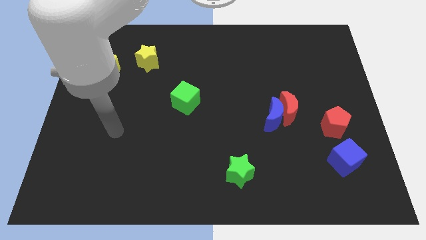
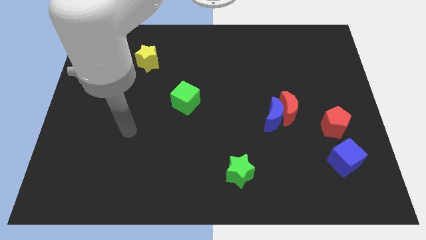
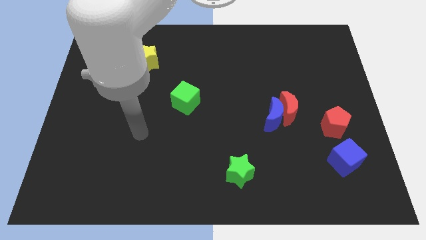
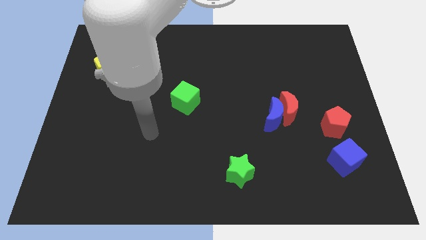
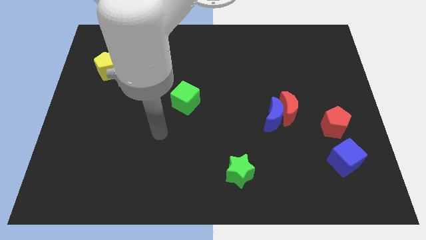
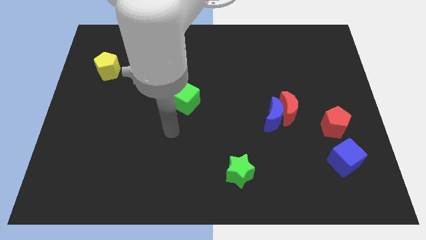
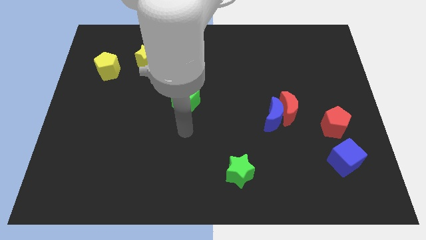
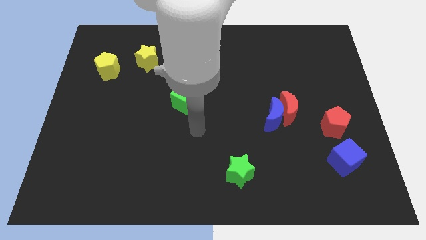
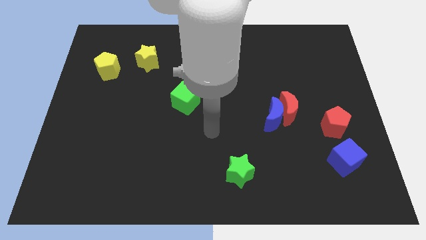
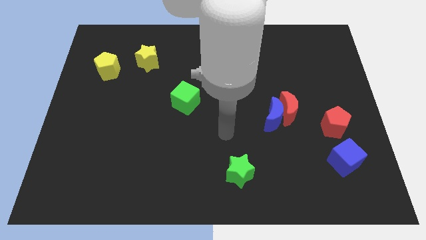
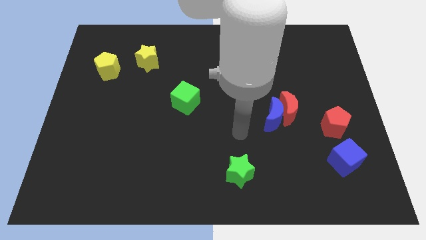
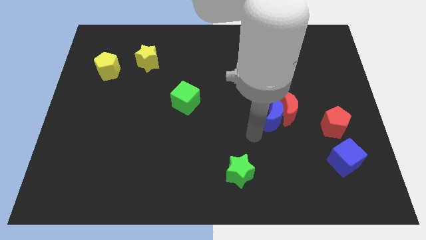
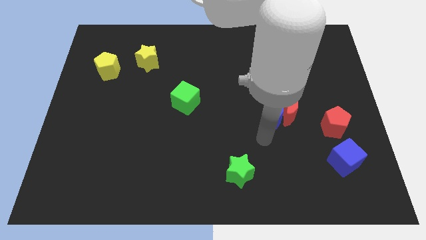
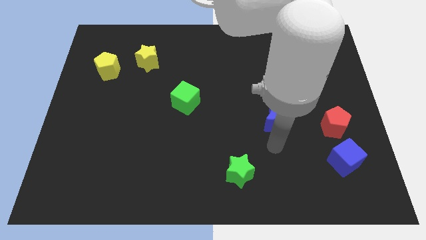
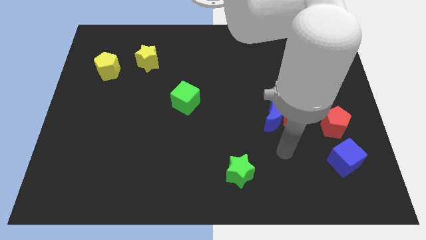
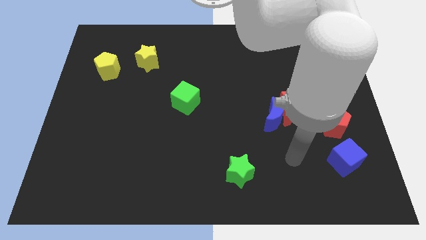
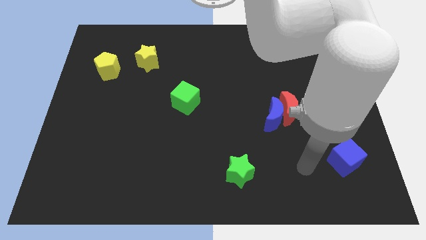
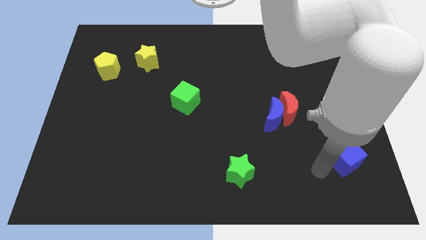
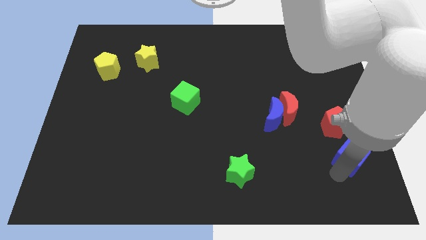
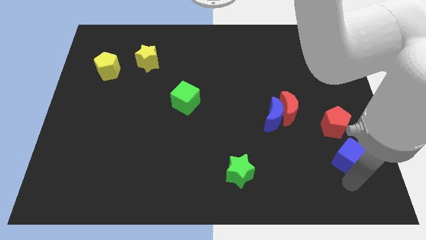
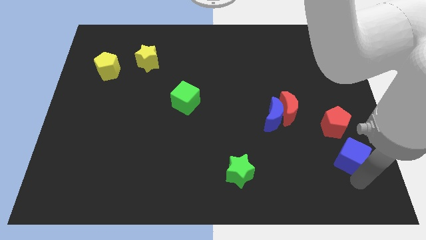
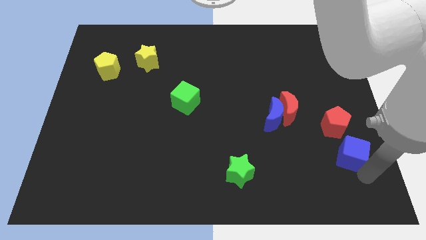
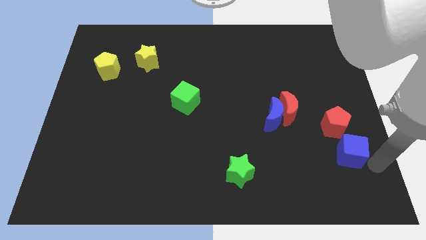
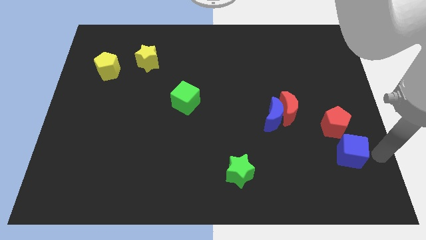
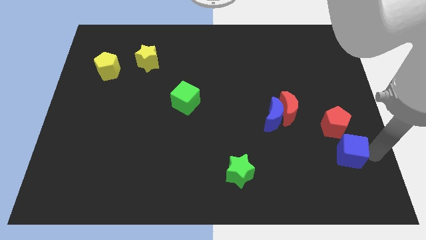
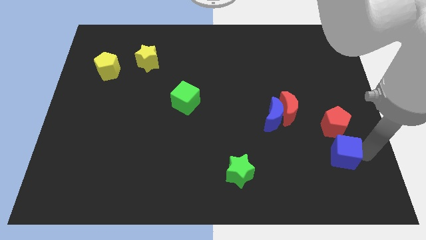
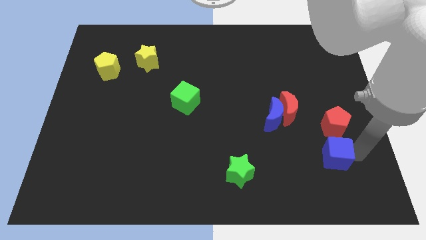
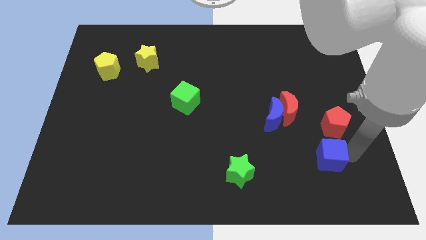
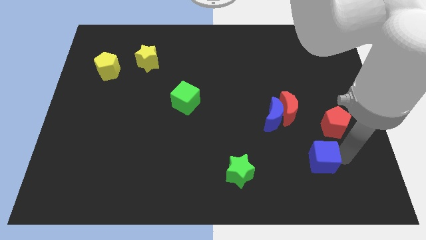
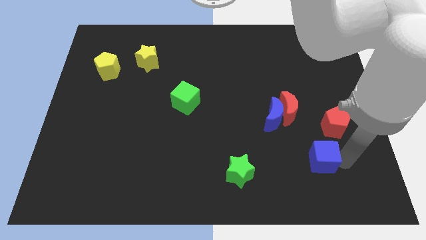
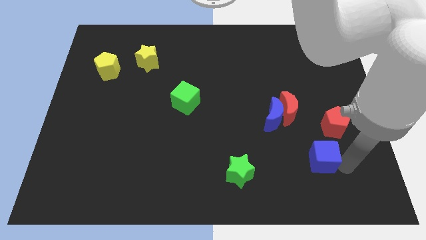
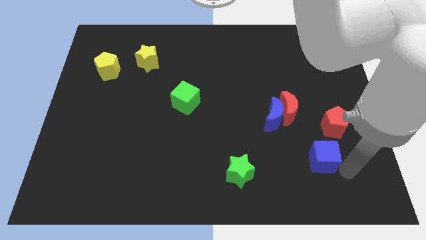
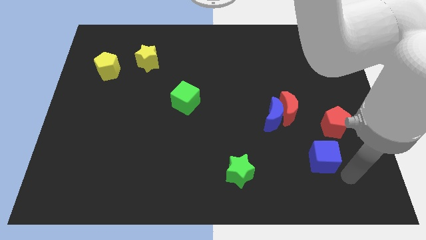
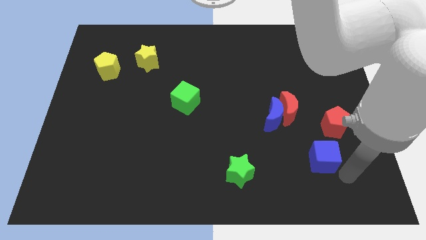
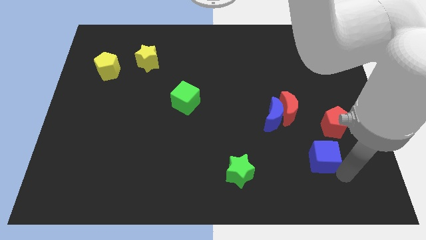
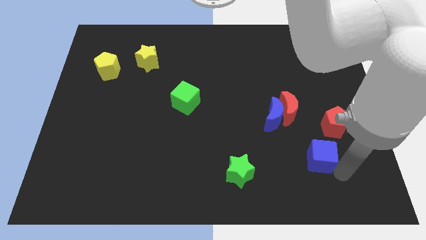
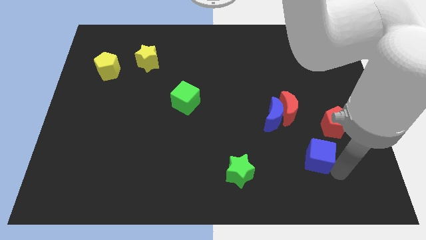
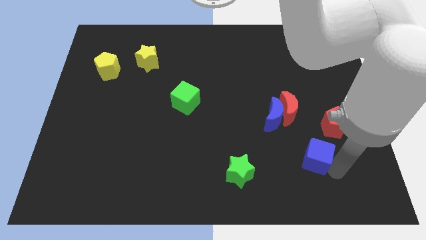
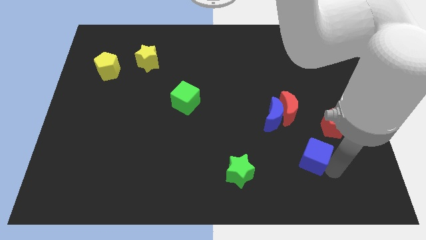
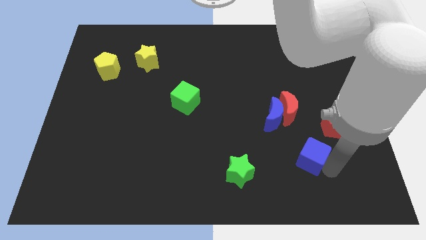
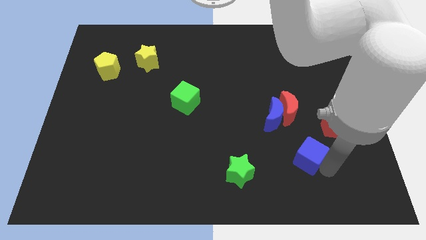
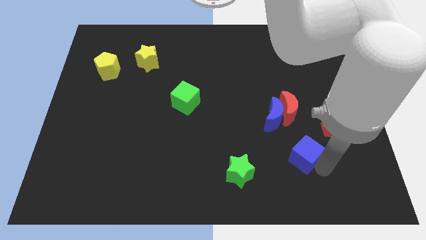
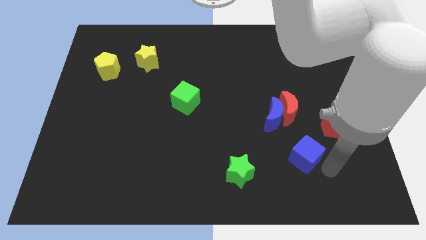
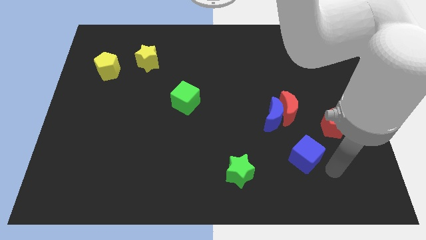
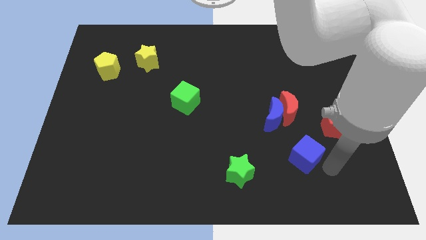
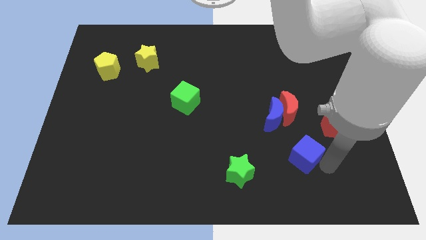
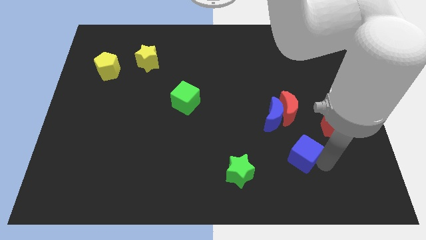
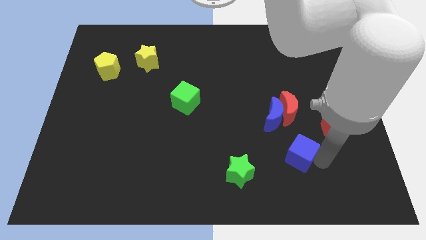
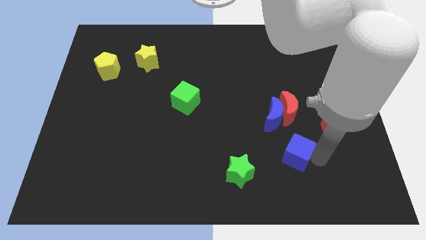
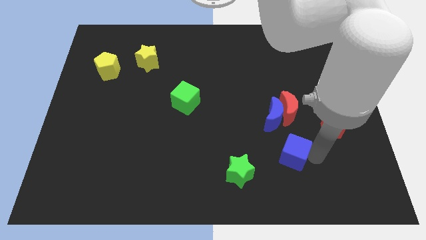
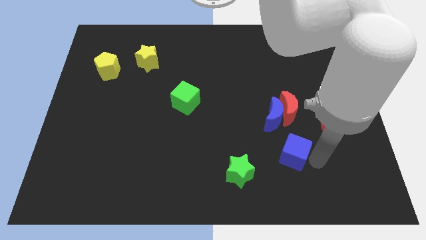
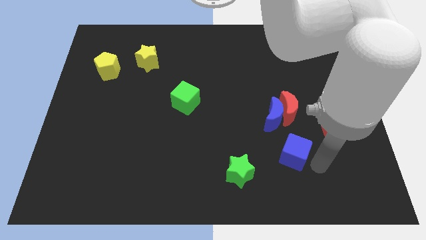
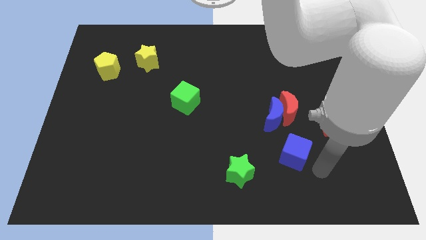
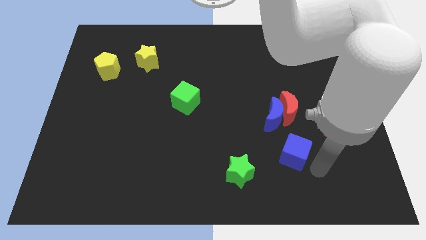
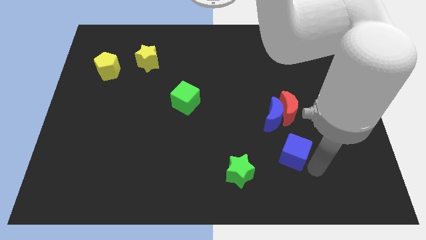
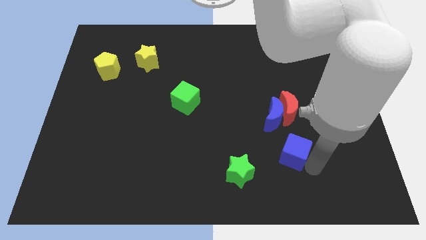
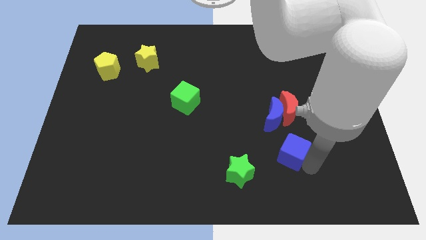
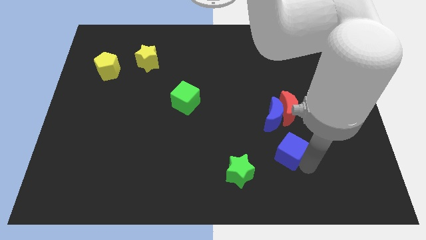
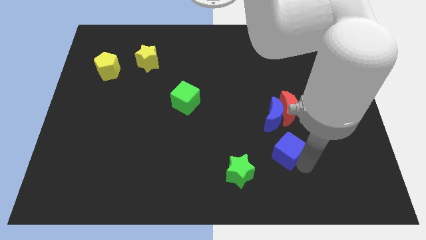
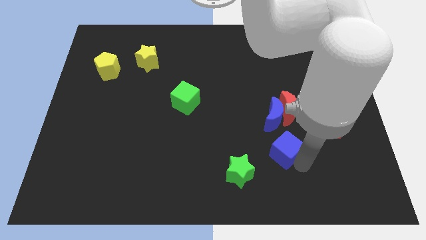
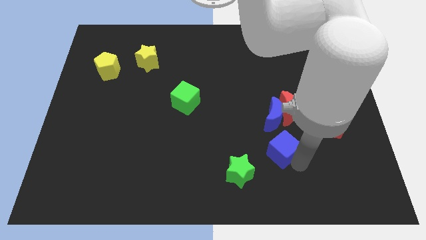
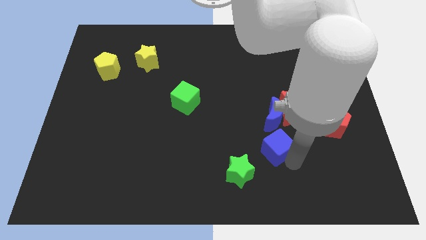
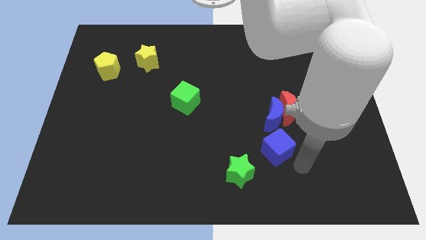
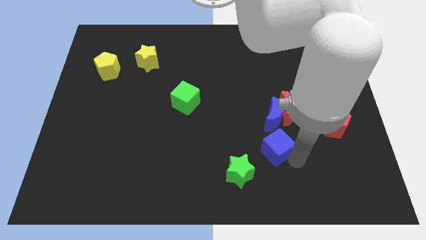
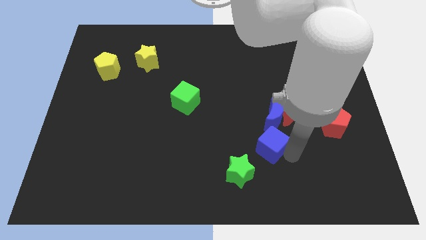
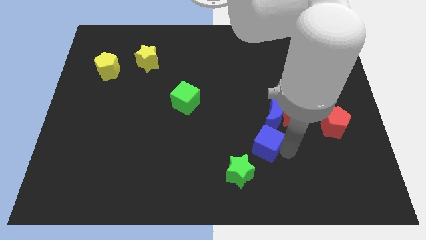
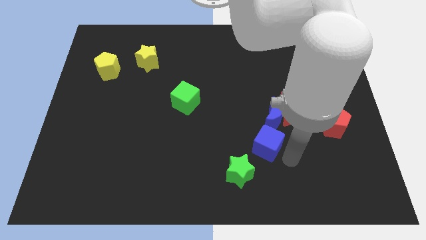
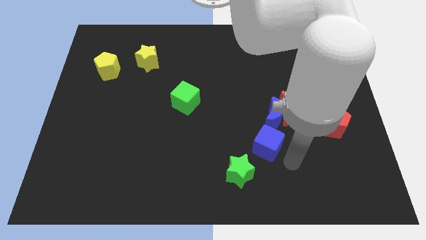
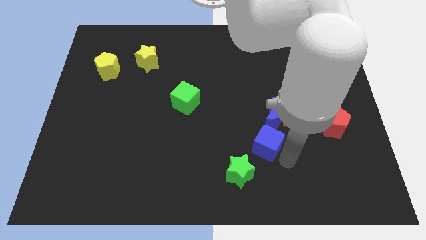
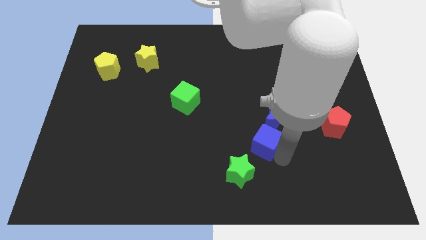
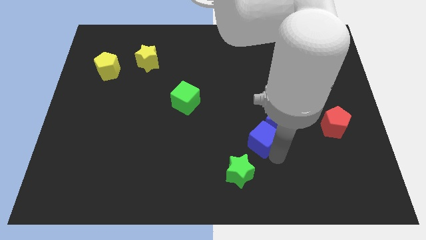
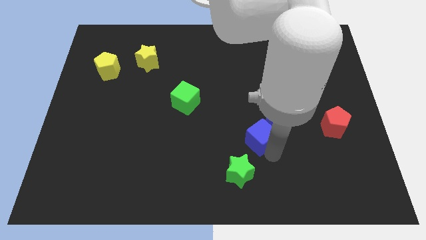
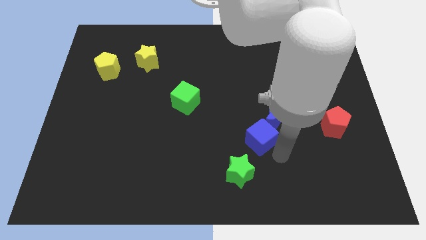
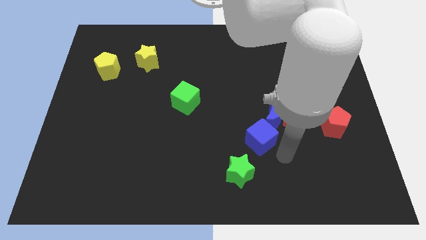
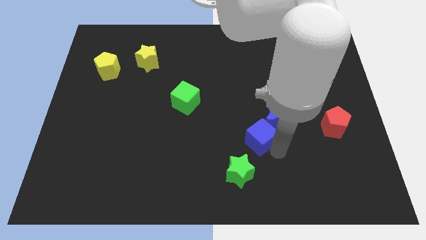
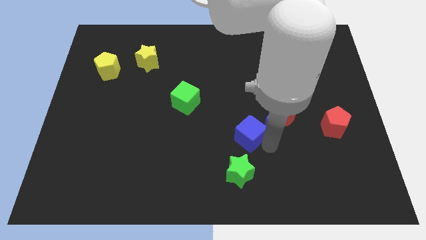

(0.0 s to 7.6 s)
slide the blue cube left of the blue moon
